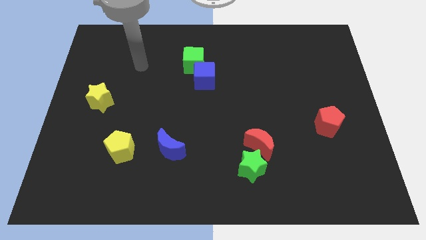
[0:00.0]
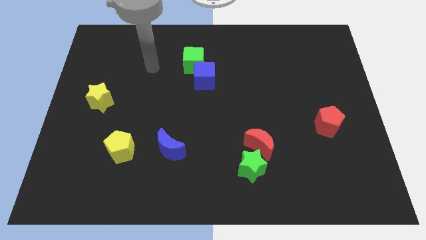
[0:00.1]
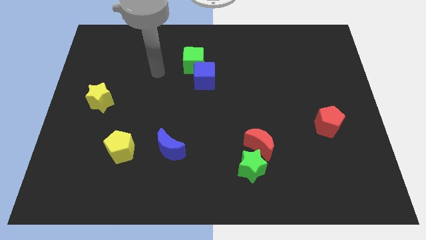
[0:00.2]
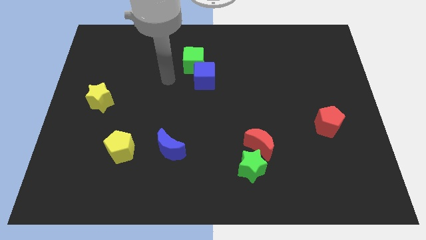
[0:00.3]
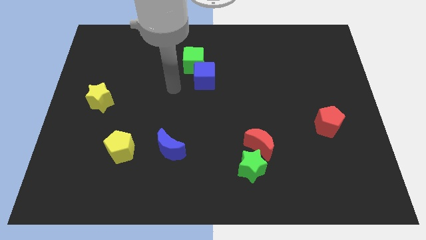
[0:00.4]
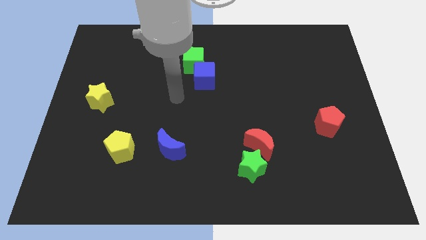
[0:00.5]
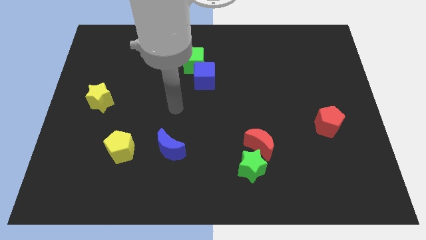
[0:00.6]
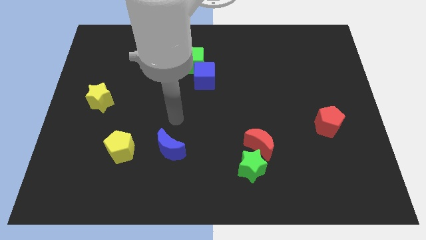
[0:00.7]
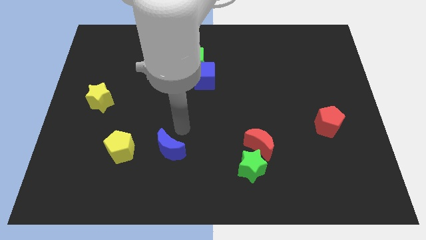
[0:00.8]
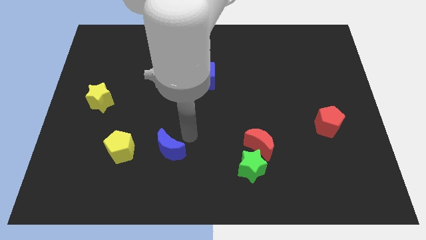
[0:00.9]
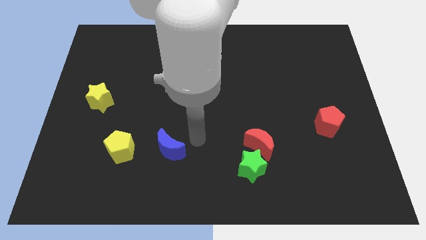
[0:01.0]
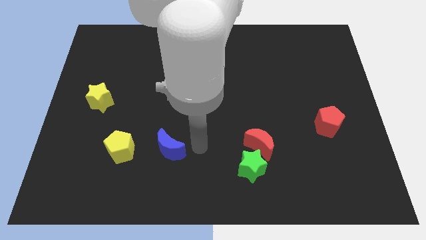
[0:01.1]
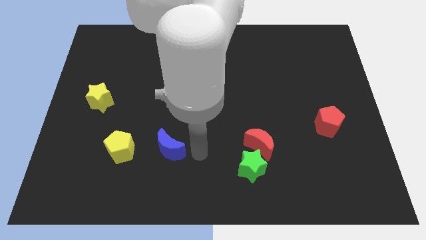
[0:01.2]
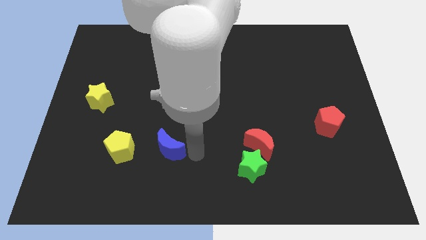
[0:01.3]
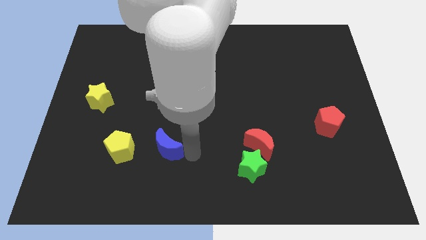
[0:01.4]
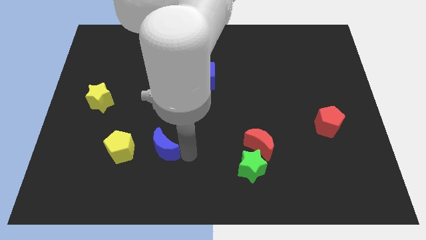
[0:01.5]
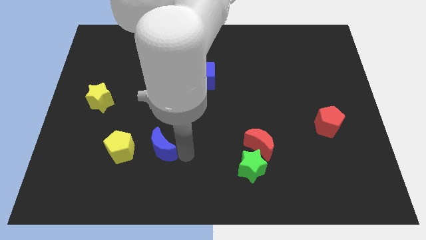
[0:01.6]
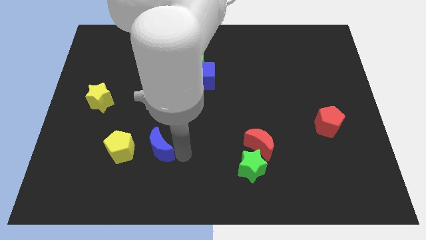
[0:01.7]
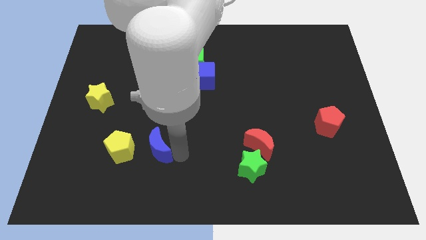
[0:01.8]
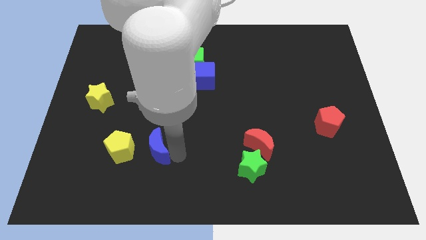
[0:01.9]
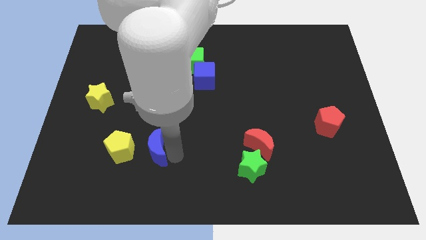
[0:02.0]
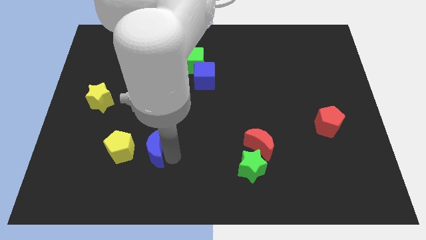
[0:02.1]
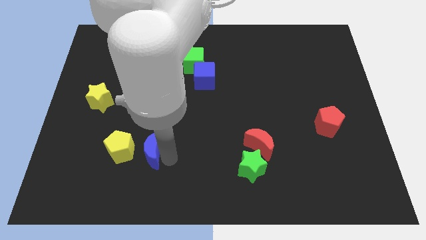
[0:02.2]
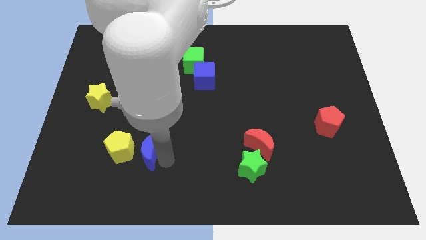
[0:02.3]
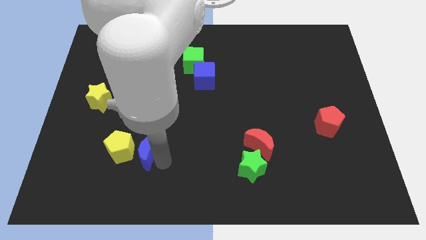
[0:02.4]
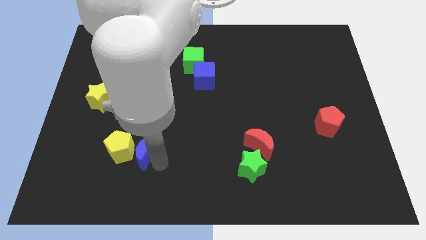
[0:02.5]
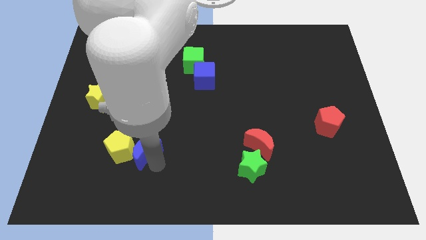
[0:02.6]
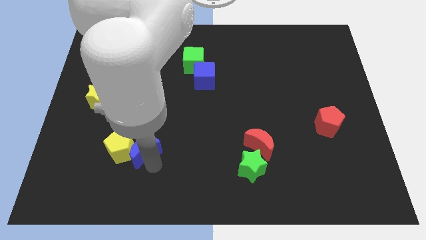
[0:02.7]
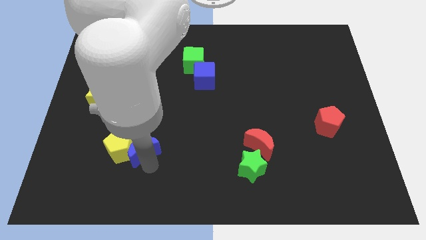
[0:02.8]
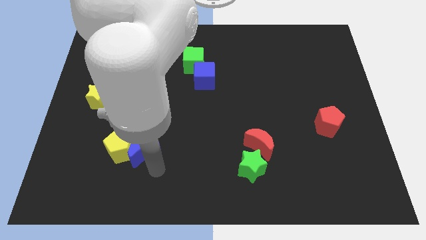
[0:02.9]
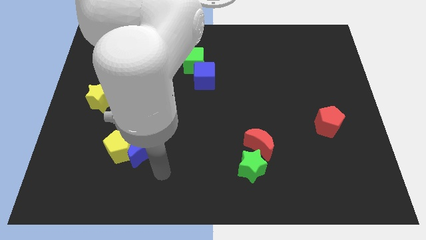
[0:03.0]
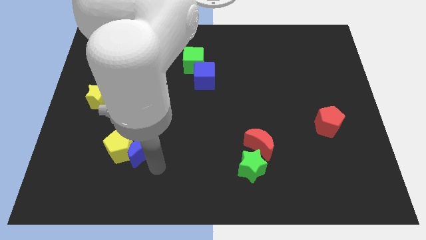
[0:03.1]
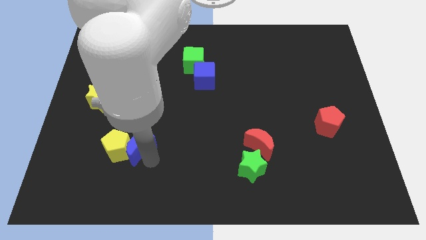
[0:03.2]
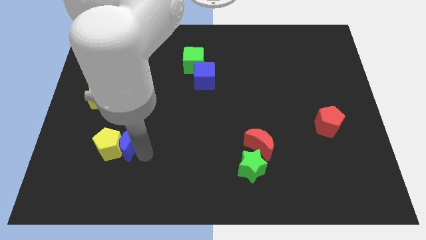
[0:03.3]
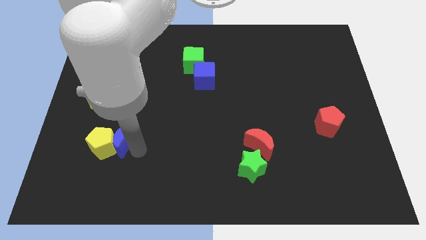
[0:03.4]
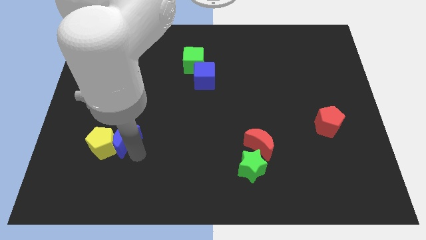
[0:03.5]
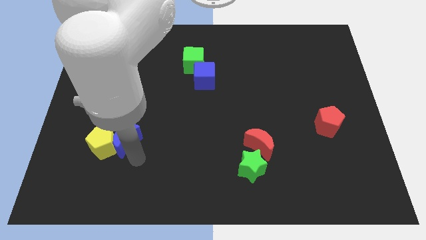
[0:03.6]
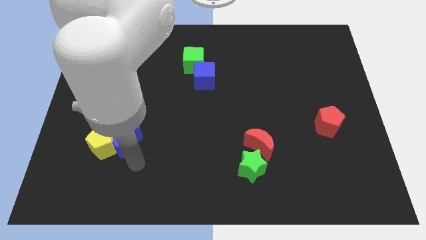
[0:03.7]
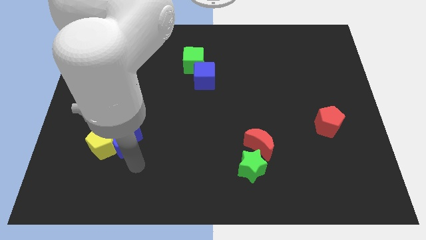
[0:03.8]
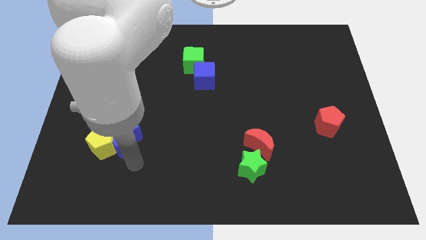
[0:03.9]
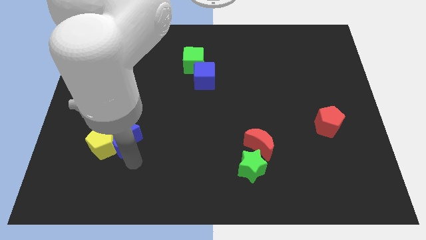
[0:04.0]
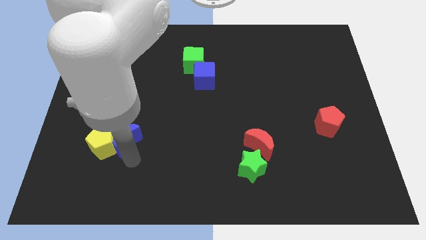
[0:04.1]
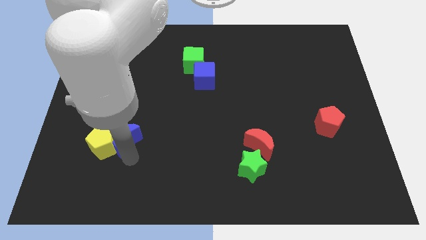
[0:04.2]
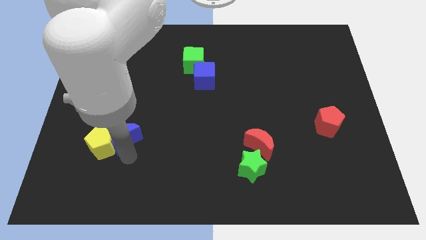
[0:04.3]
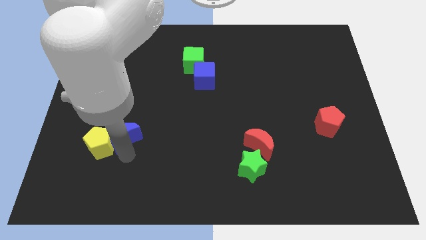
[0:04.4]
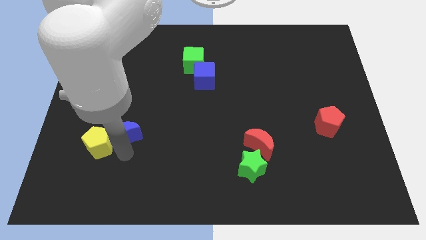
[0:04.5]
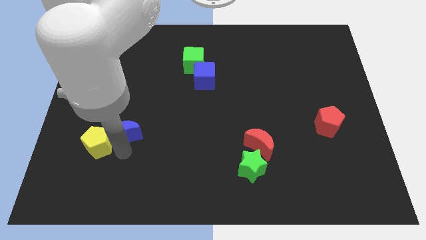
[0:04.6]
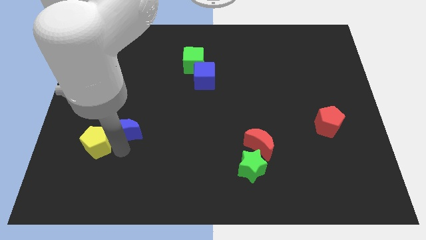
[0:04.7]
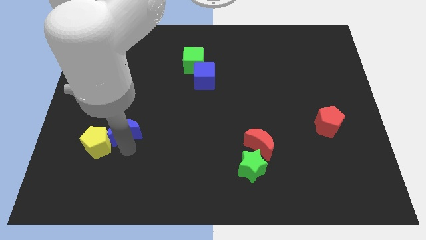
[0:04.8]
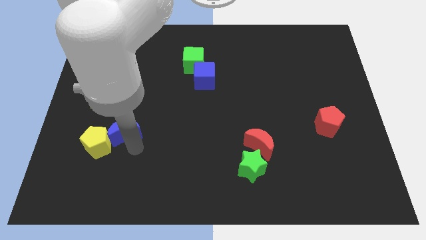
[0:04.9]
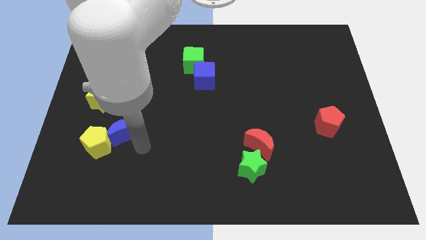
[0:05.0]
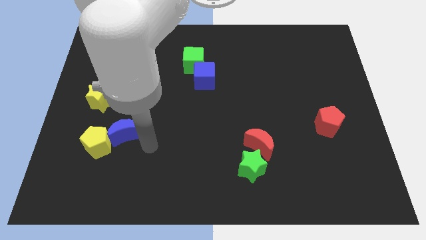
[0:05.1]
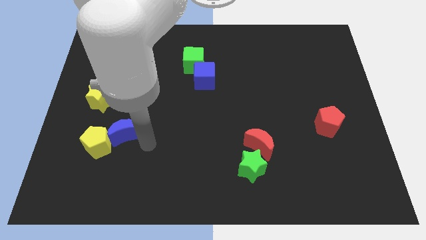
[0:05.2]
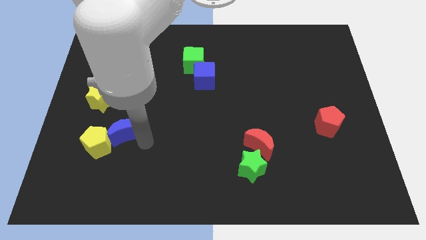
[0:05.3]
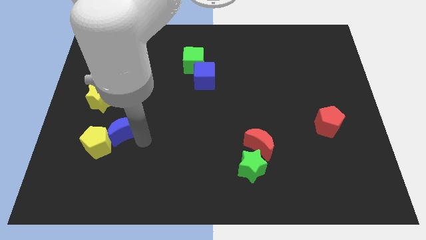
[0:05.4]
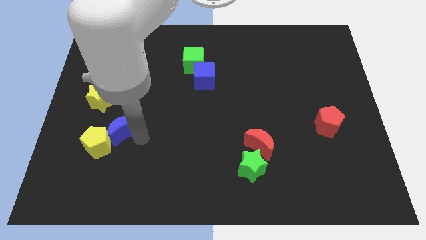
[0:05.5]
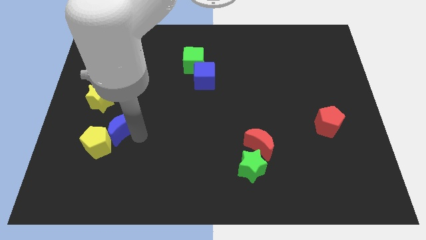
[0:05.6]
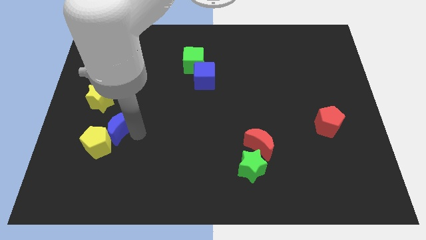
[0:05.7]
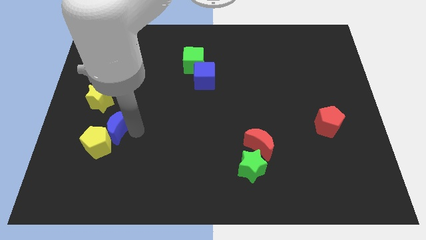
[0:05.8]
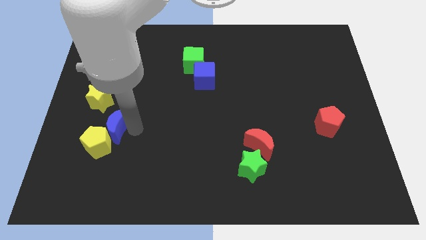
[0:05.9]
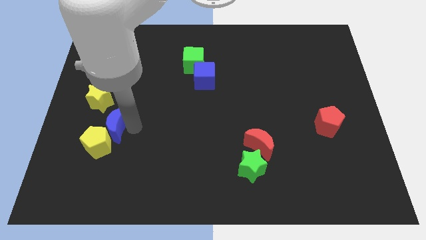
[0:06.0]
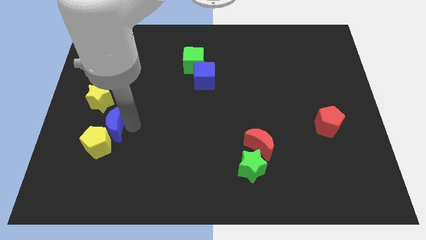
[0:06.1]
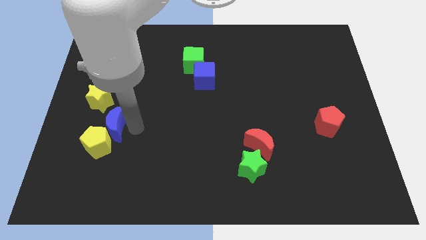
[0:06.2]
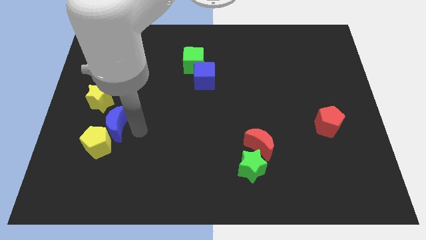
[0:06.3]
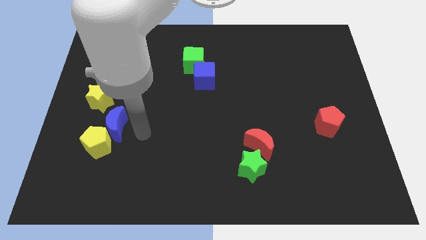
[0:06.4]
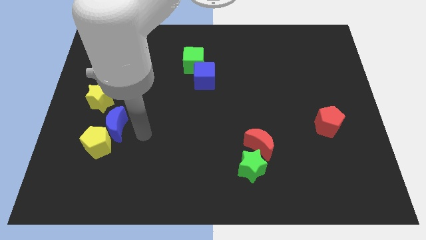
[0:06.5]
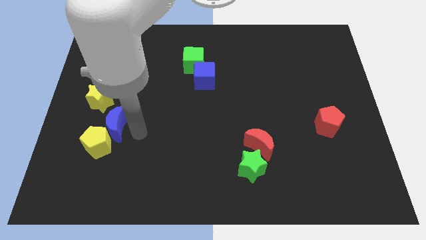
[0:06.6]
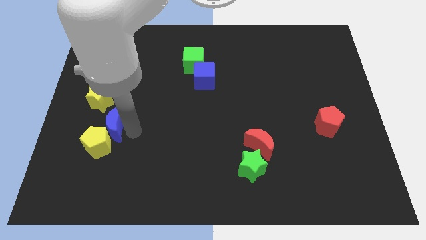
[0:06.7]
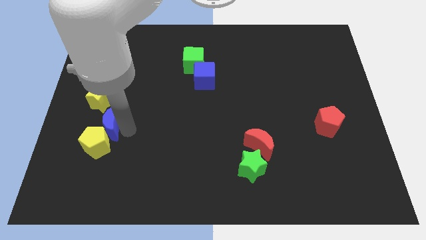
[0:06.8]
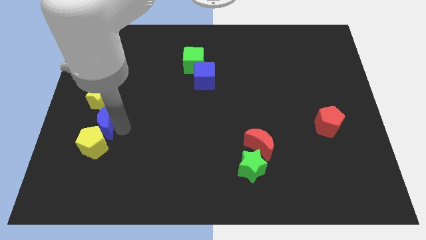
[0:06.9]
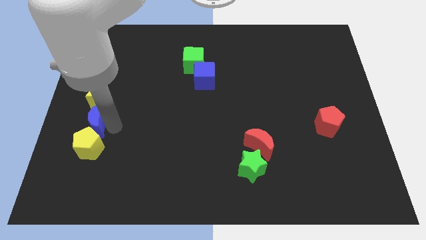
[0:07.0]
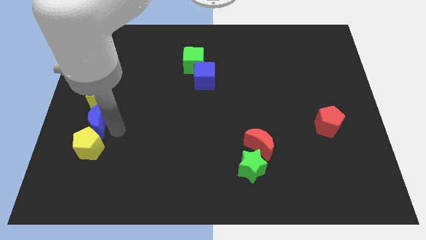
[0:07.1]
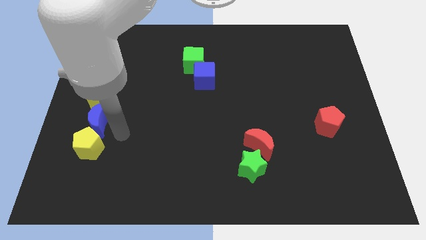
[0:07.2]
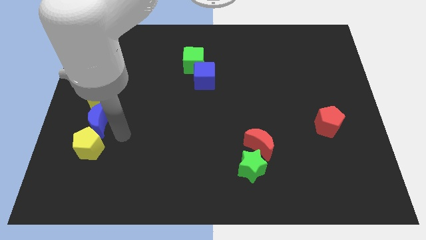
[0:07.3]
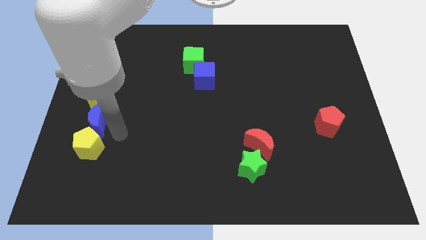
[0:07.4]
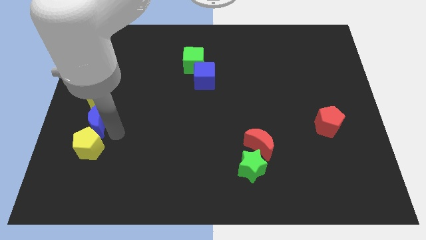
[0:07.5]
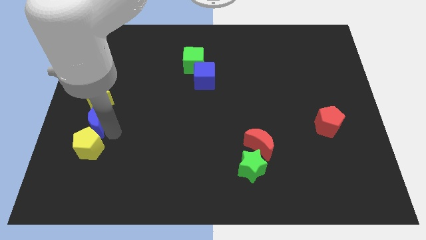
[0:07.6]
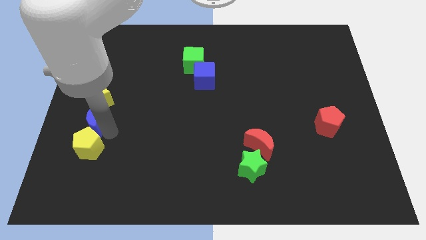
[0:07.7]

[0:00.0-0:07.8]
move the blue moon to the left side
